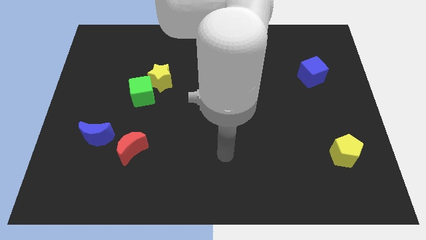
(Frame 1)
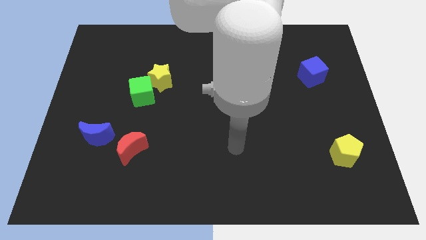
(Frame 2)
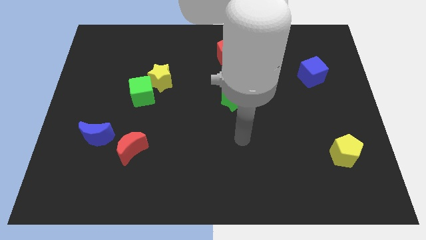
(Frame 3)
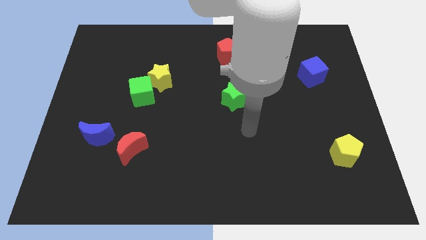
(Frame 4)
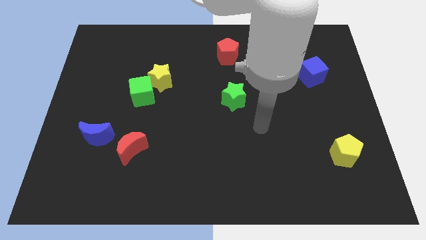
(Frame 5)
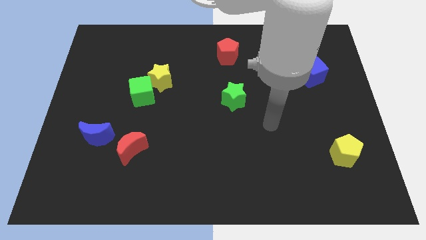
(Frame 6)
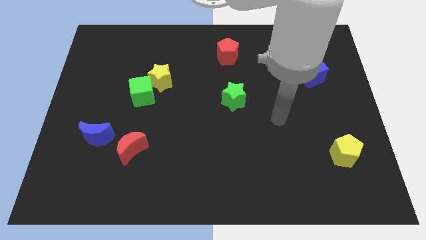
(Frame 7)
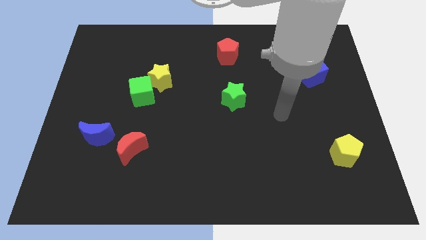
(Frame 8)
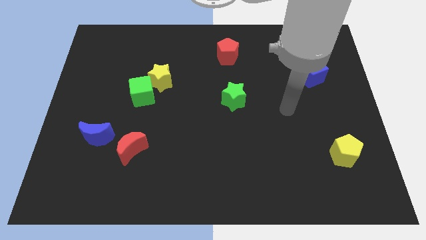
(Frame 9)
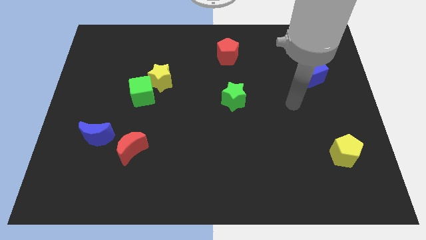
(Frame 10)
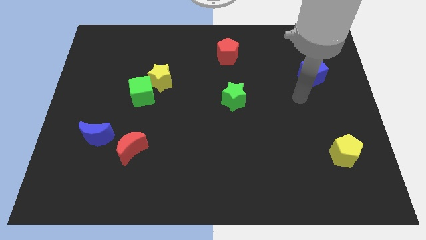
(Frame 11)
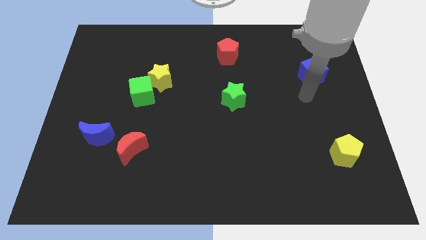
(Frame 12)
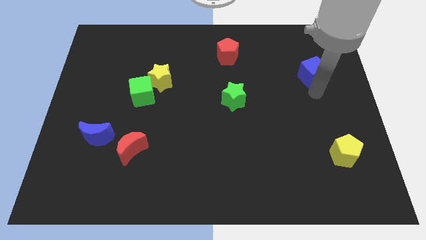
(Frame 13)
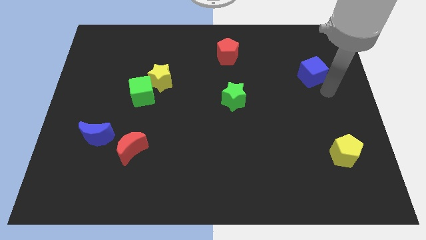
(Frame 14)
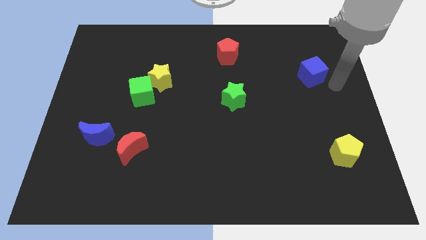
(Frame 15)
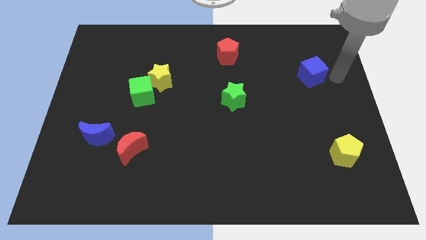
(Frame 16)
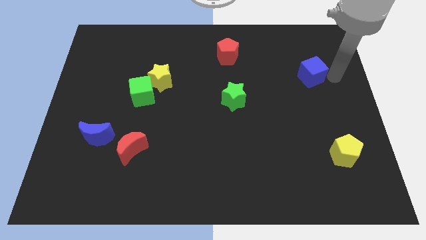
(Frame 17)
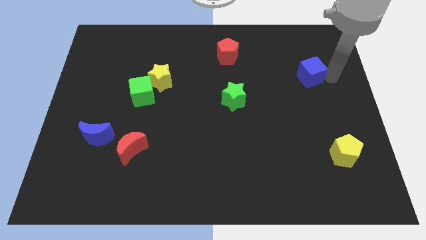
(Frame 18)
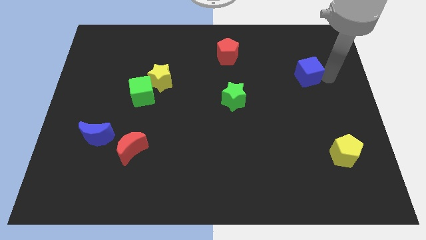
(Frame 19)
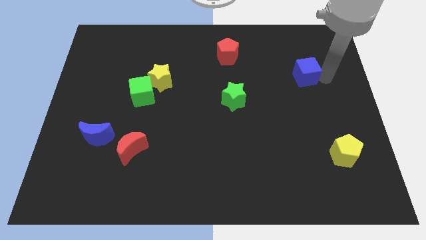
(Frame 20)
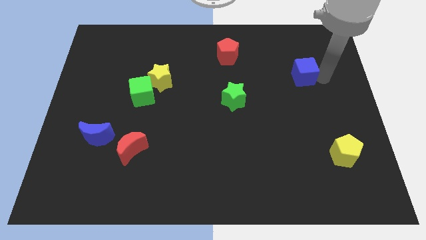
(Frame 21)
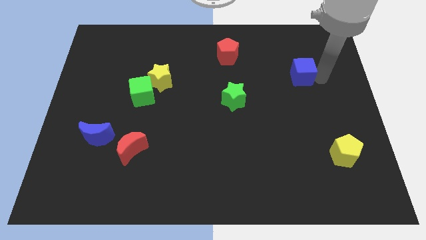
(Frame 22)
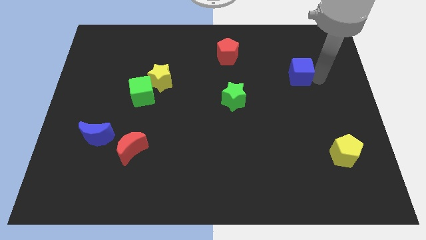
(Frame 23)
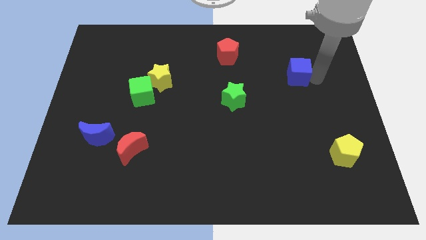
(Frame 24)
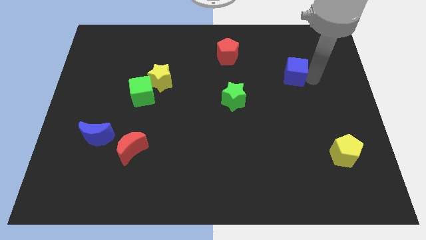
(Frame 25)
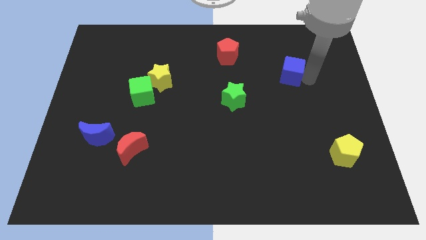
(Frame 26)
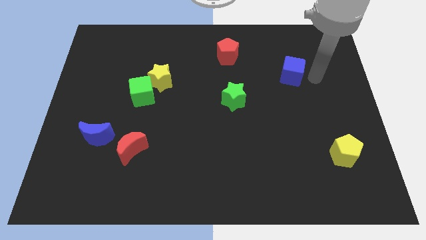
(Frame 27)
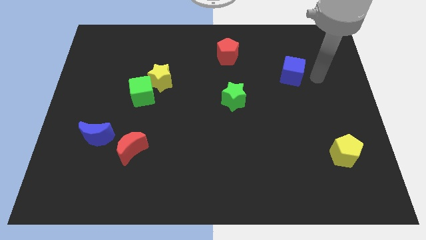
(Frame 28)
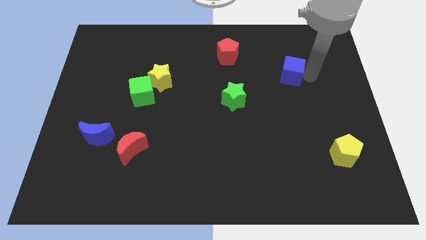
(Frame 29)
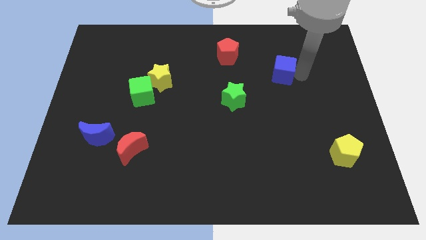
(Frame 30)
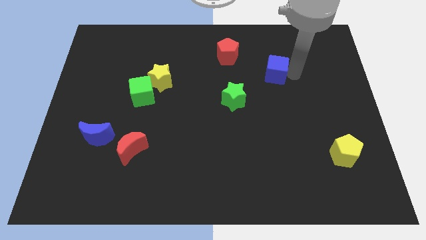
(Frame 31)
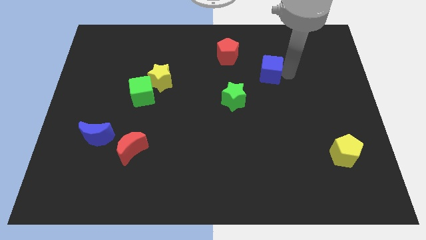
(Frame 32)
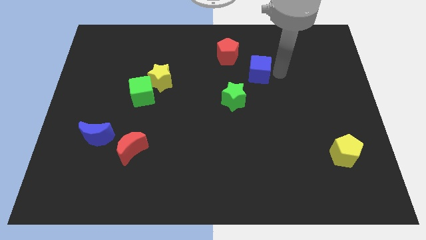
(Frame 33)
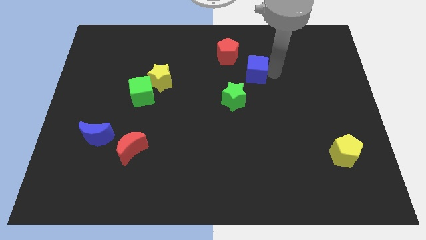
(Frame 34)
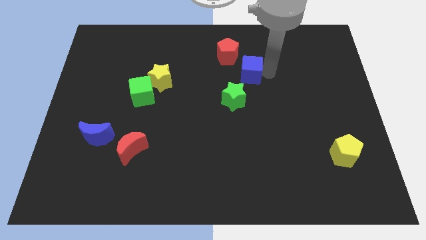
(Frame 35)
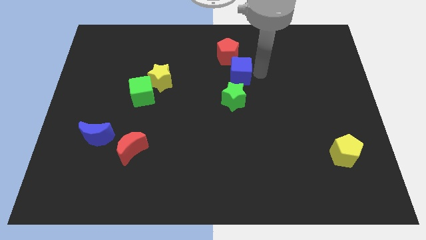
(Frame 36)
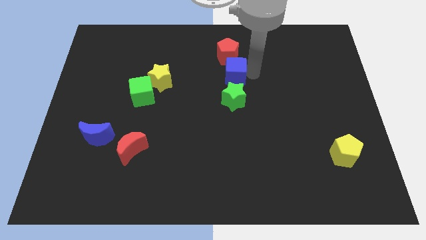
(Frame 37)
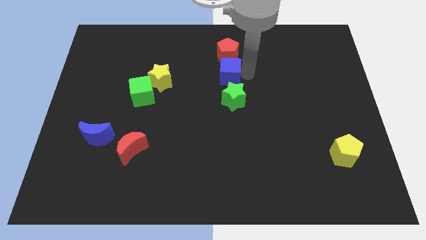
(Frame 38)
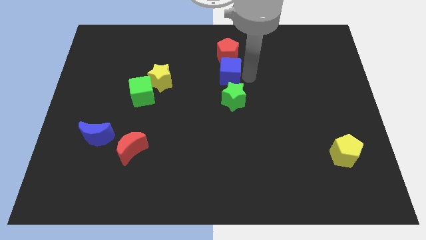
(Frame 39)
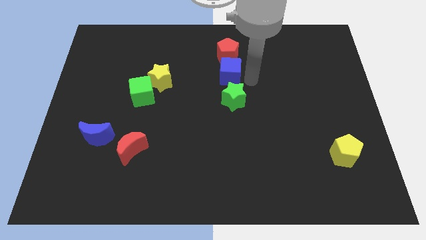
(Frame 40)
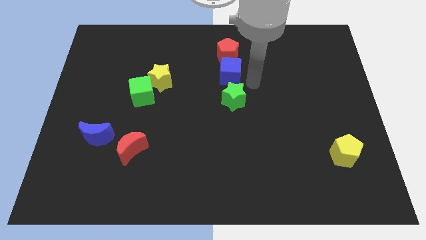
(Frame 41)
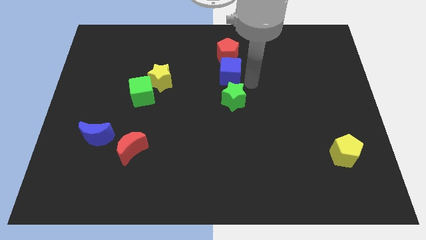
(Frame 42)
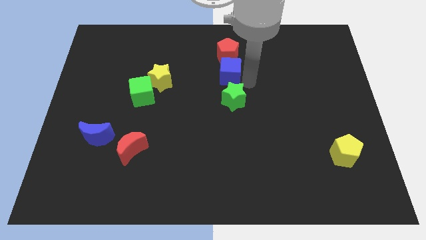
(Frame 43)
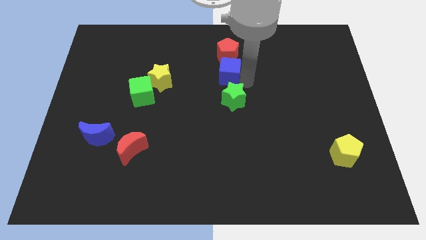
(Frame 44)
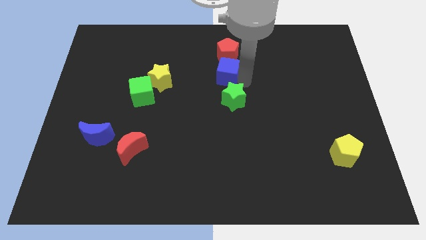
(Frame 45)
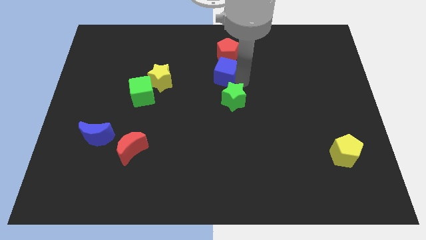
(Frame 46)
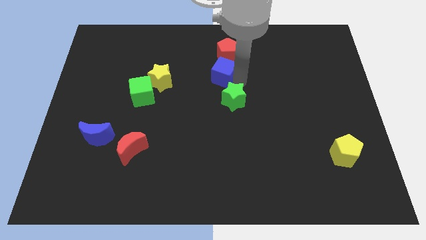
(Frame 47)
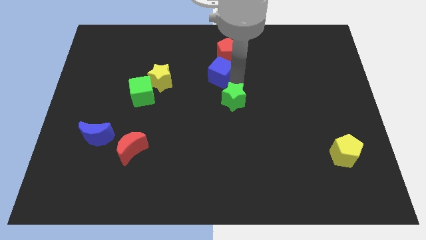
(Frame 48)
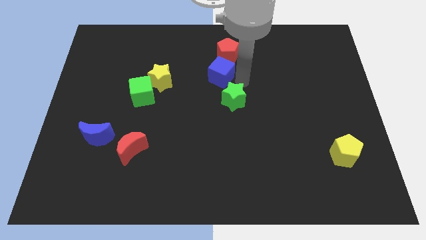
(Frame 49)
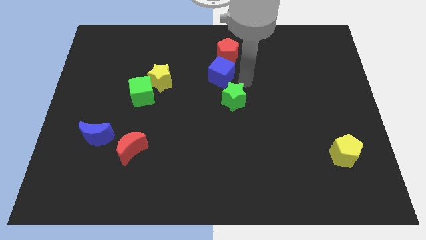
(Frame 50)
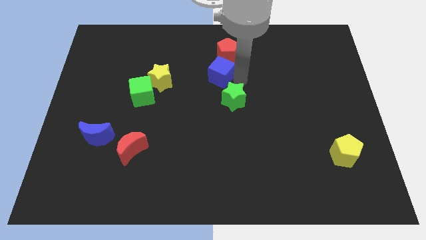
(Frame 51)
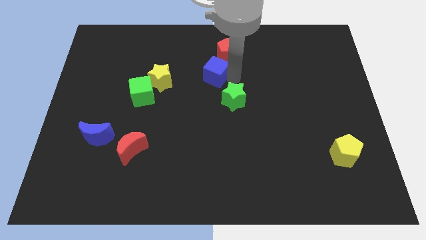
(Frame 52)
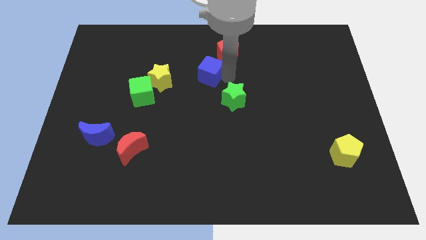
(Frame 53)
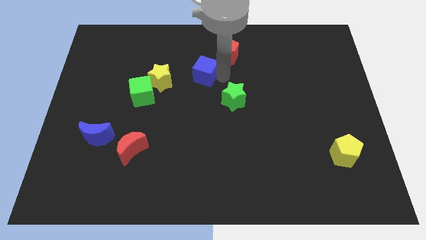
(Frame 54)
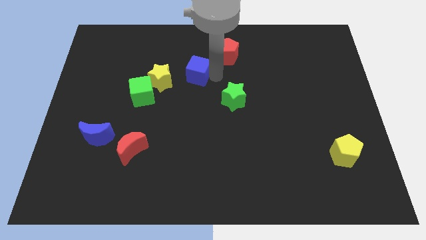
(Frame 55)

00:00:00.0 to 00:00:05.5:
move the blue cube to the top right side of the yellow star

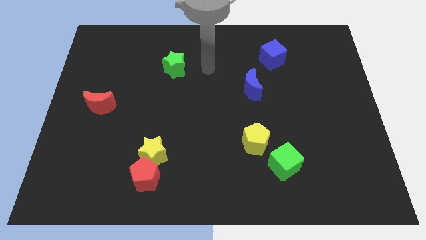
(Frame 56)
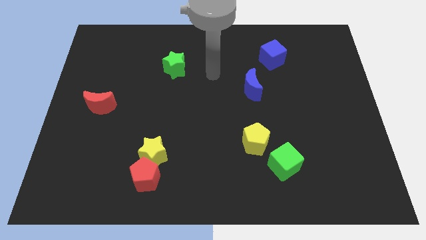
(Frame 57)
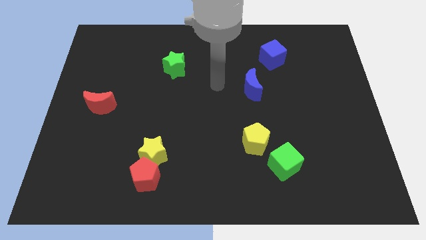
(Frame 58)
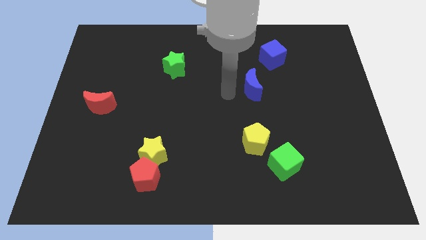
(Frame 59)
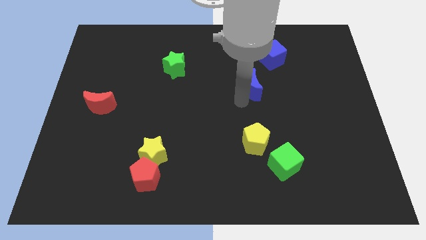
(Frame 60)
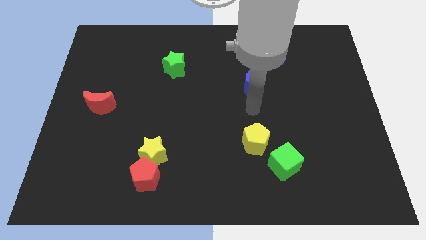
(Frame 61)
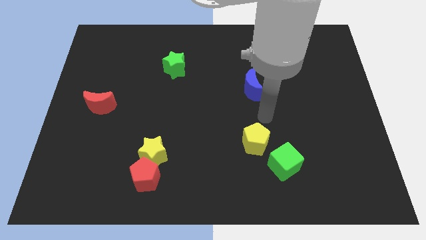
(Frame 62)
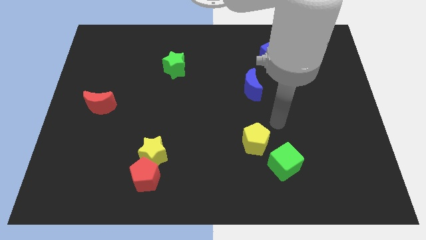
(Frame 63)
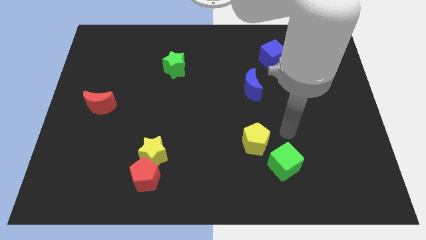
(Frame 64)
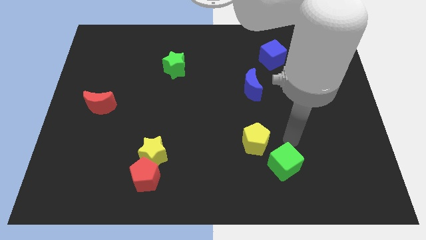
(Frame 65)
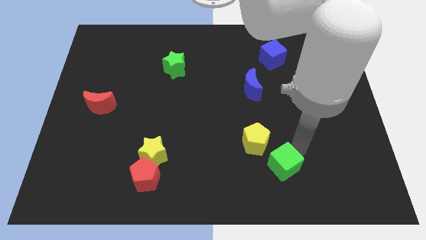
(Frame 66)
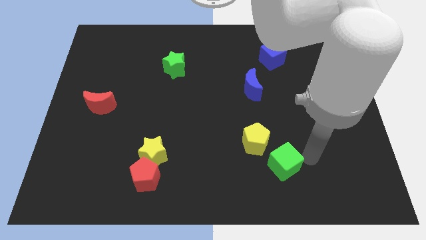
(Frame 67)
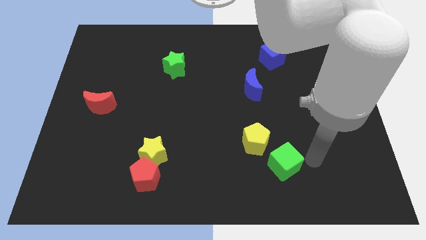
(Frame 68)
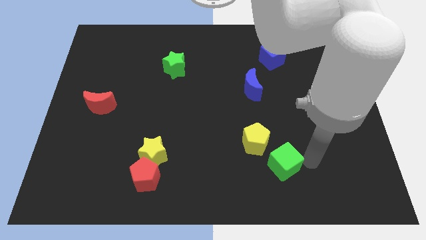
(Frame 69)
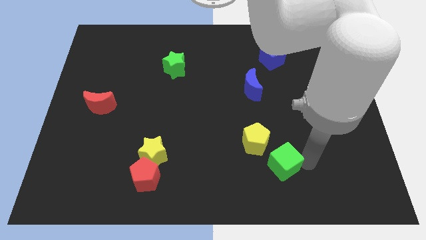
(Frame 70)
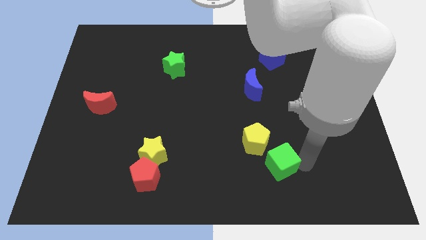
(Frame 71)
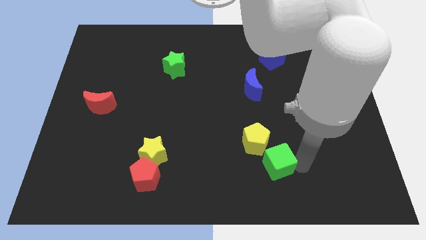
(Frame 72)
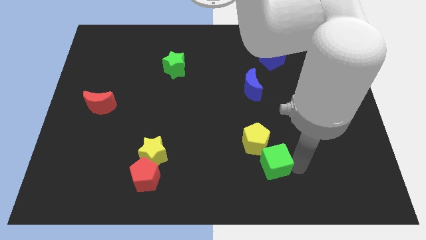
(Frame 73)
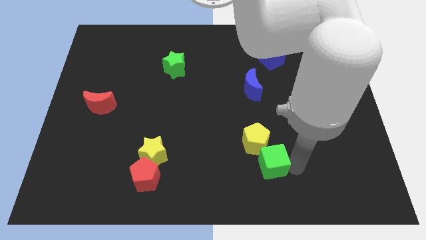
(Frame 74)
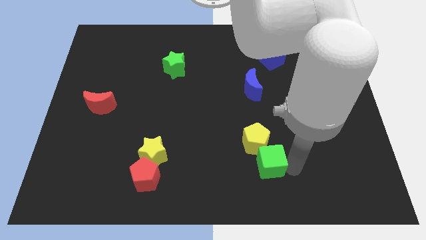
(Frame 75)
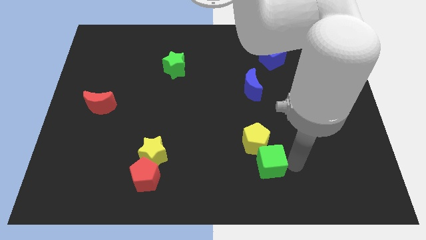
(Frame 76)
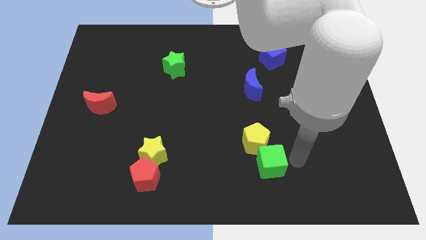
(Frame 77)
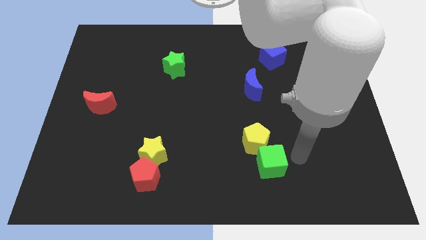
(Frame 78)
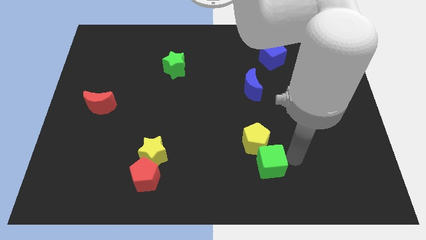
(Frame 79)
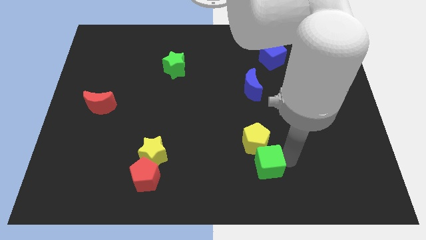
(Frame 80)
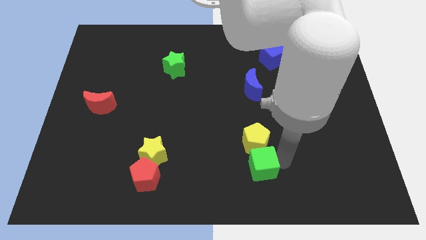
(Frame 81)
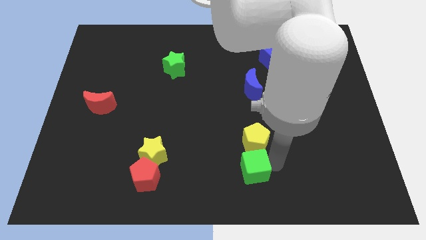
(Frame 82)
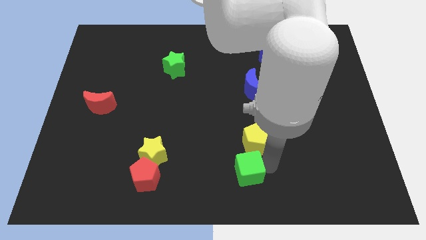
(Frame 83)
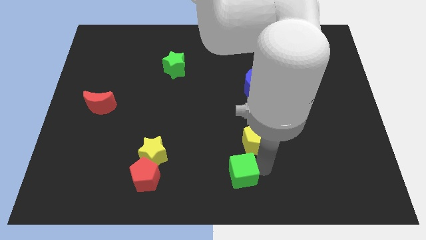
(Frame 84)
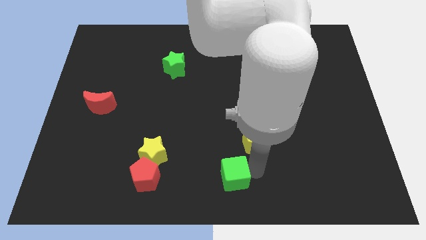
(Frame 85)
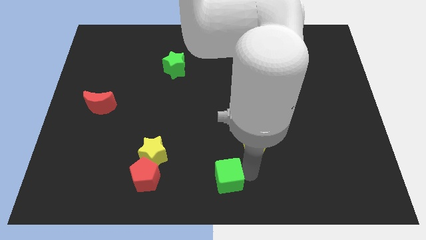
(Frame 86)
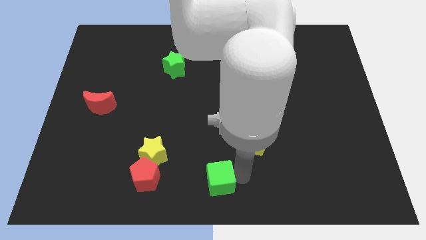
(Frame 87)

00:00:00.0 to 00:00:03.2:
move the green cube right of the red pentagon
